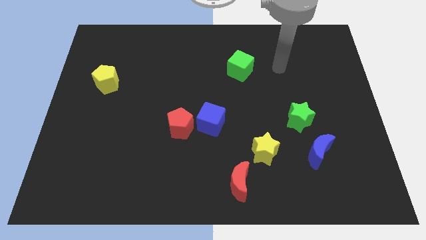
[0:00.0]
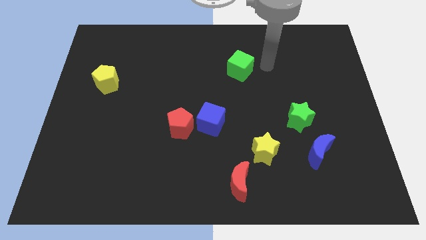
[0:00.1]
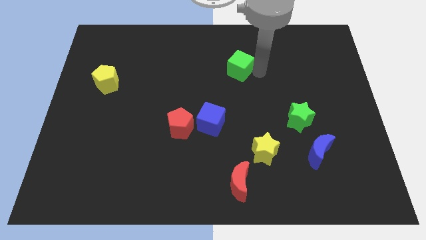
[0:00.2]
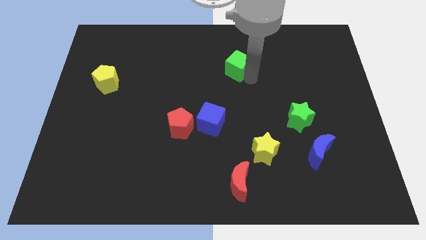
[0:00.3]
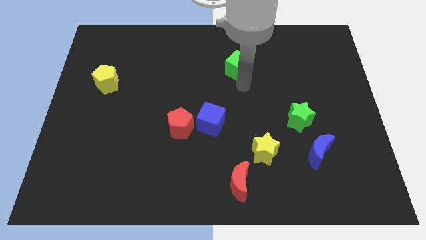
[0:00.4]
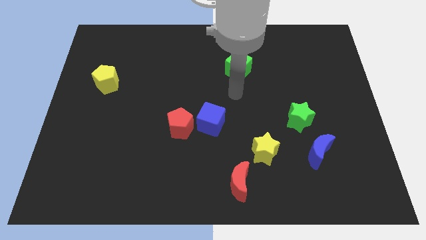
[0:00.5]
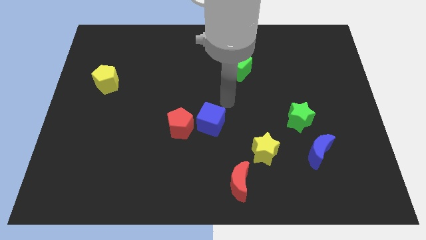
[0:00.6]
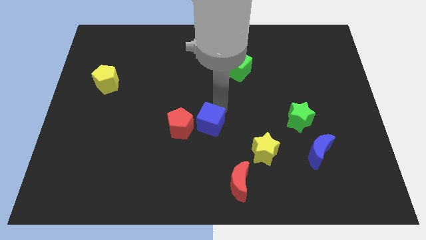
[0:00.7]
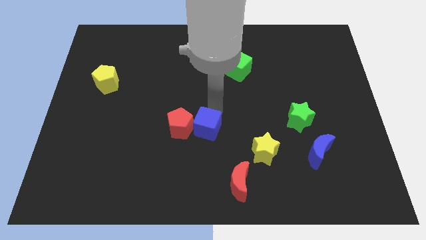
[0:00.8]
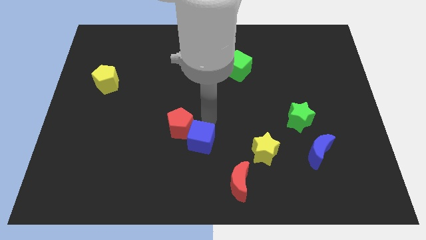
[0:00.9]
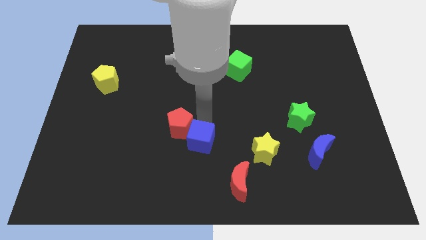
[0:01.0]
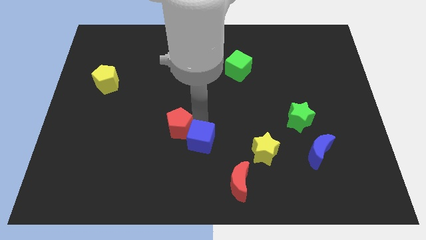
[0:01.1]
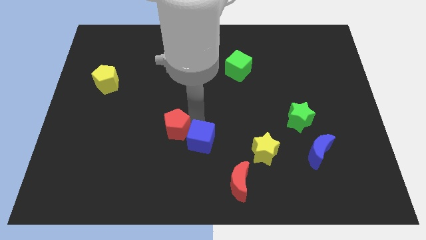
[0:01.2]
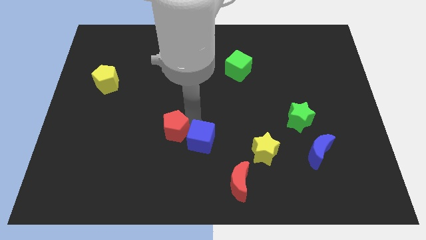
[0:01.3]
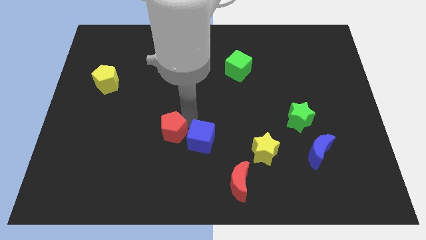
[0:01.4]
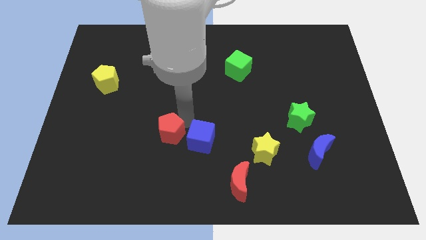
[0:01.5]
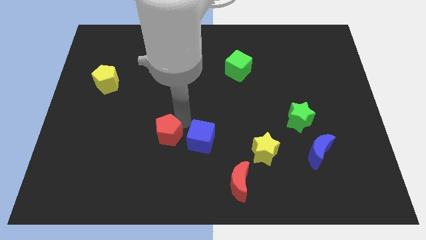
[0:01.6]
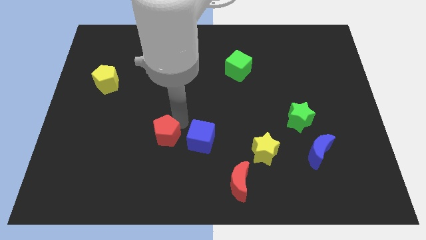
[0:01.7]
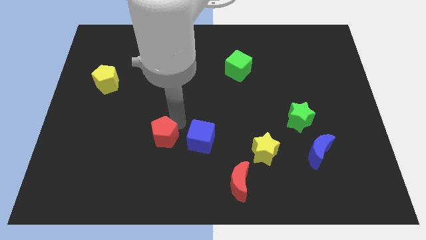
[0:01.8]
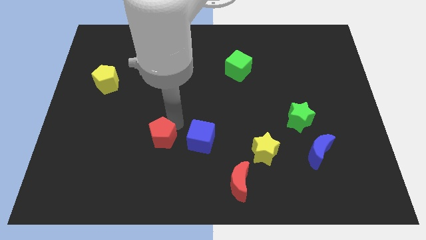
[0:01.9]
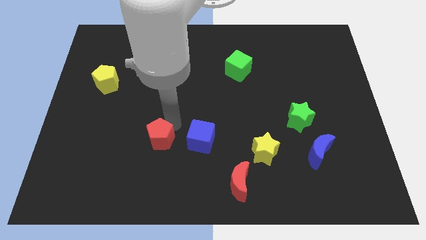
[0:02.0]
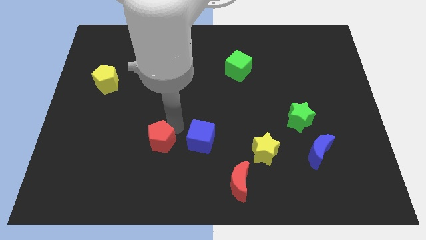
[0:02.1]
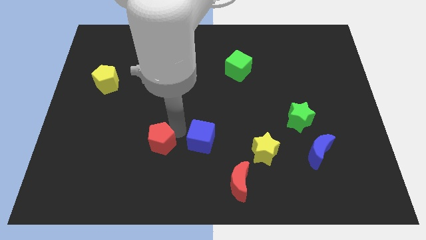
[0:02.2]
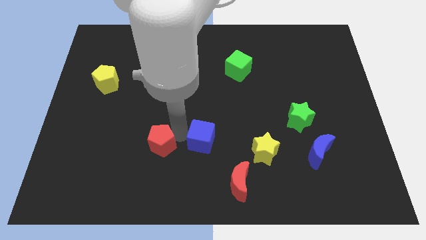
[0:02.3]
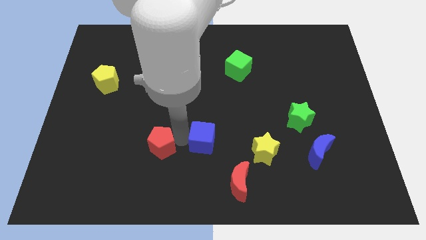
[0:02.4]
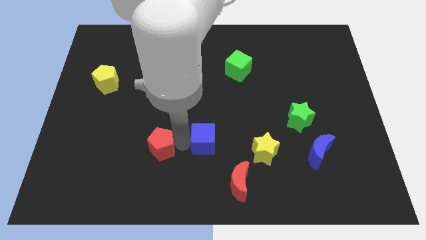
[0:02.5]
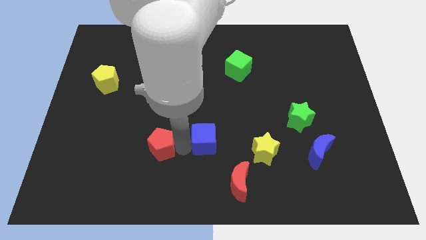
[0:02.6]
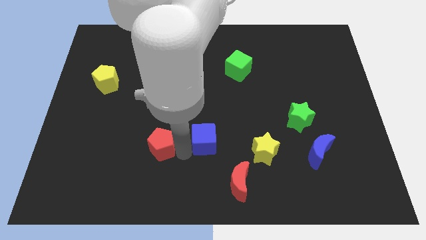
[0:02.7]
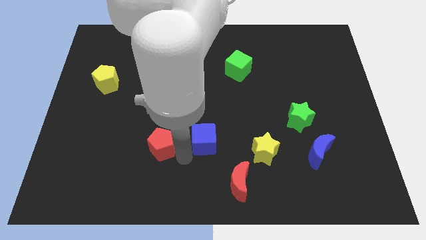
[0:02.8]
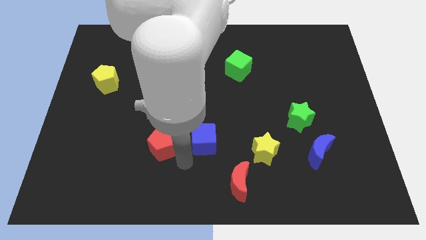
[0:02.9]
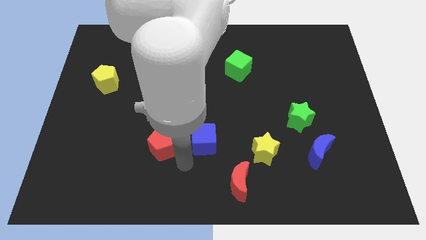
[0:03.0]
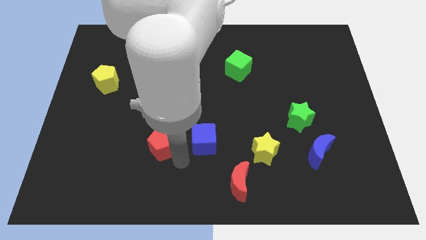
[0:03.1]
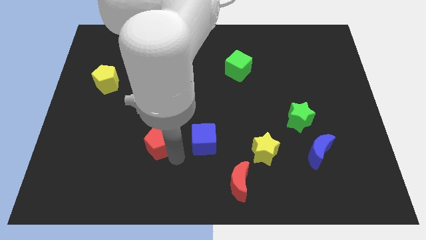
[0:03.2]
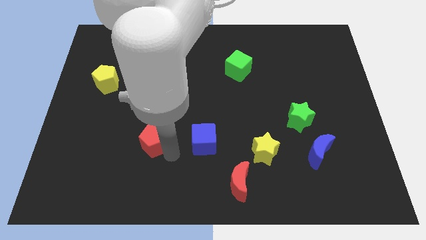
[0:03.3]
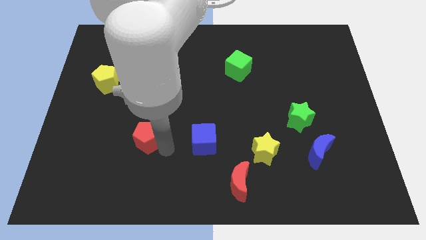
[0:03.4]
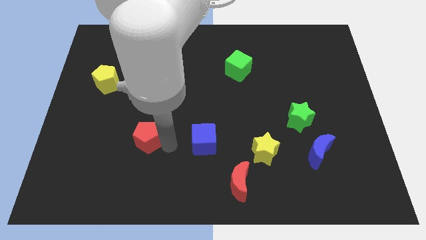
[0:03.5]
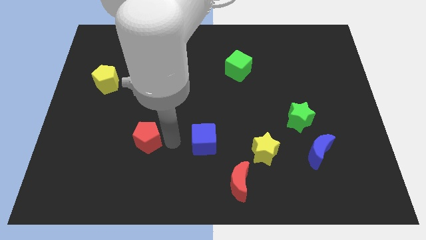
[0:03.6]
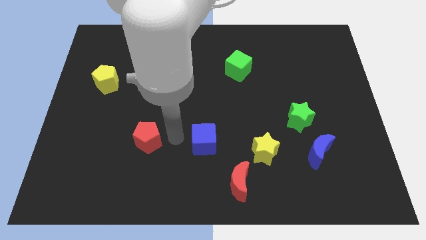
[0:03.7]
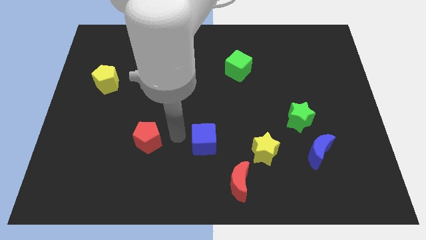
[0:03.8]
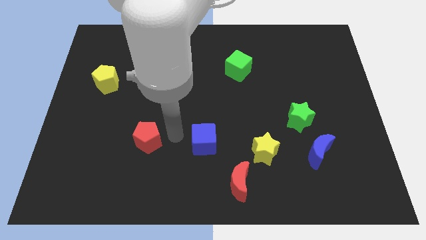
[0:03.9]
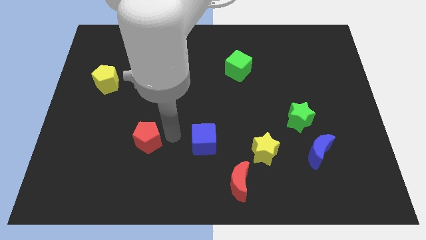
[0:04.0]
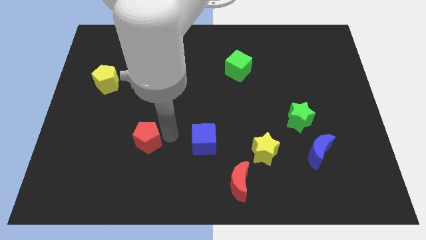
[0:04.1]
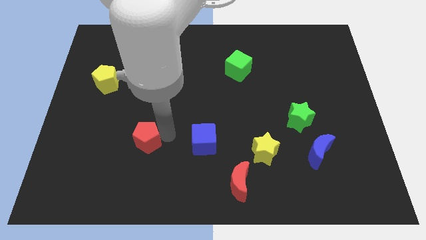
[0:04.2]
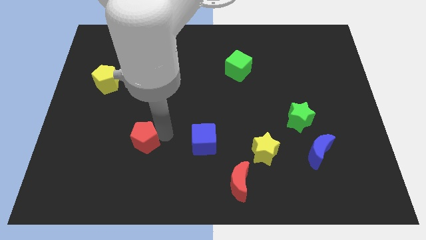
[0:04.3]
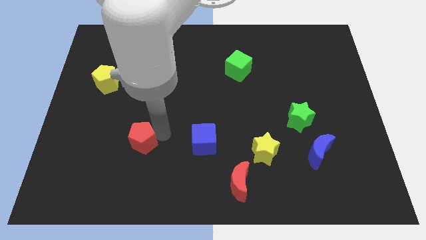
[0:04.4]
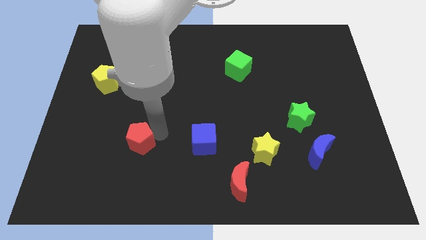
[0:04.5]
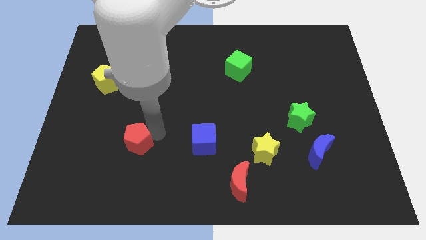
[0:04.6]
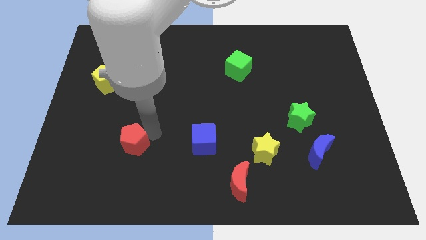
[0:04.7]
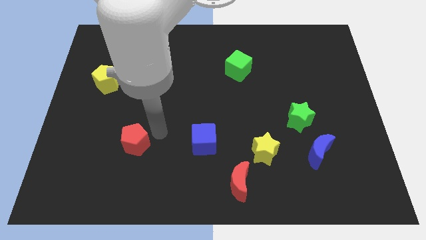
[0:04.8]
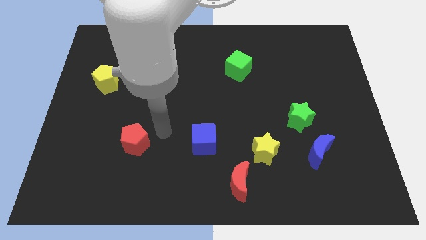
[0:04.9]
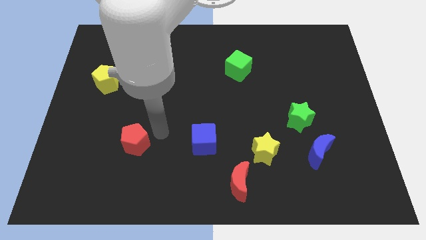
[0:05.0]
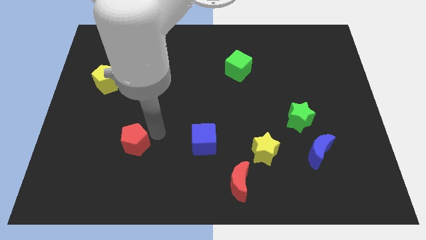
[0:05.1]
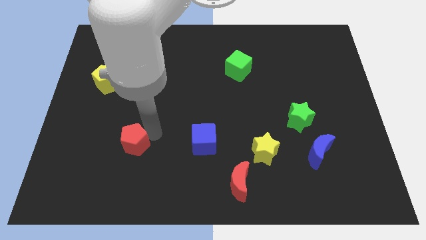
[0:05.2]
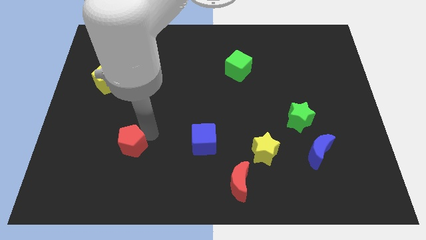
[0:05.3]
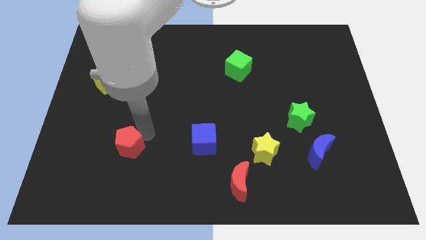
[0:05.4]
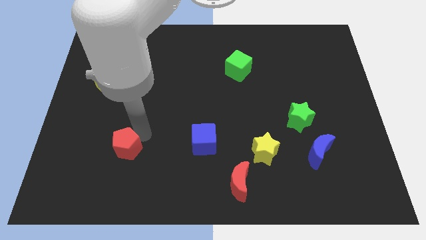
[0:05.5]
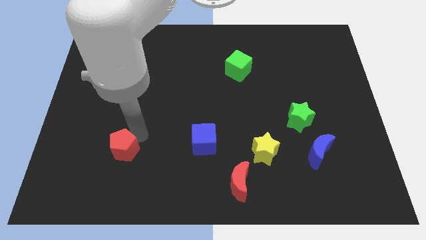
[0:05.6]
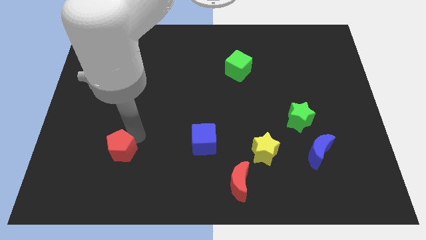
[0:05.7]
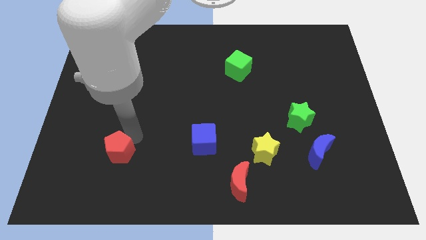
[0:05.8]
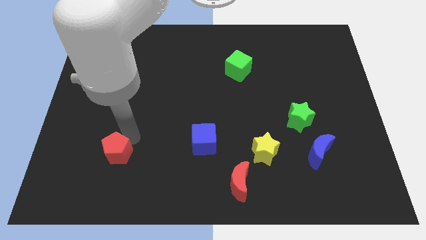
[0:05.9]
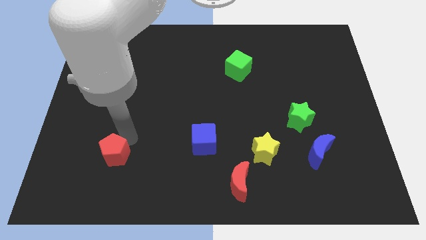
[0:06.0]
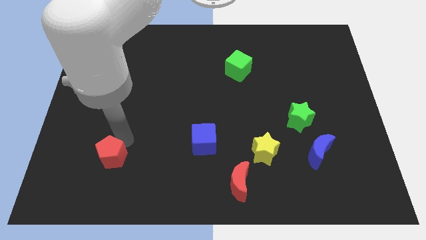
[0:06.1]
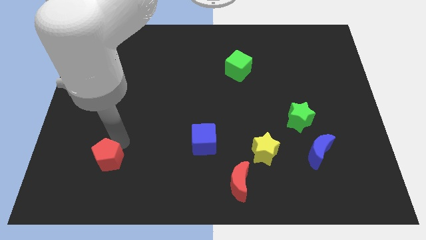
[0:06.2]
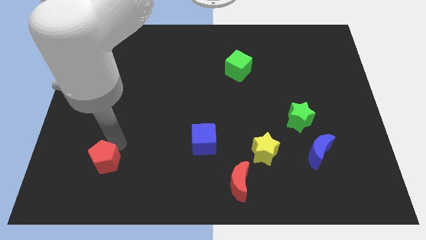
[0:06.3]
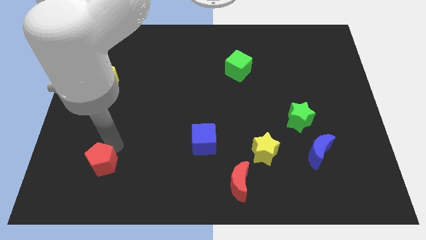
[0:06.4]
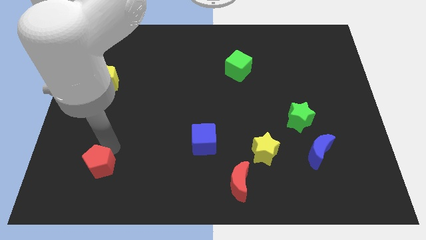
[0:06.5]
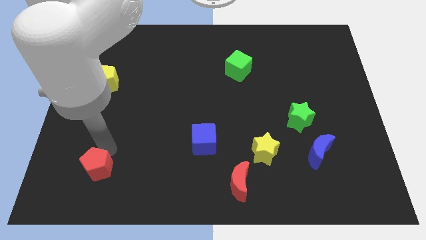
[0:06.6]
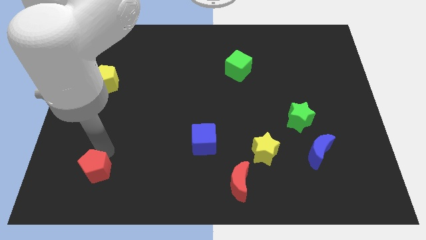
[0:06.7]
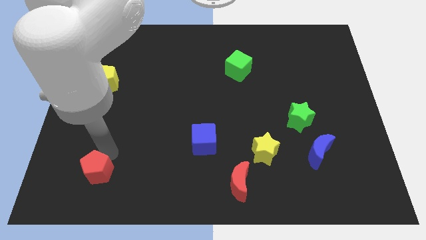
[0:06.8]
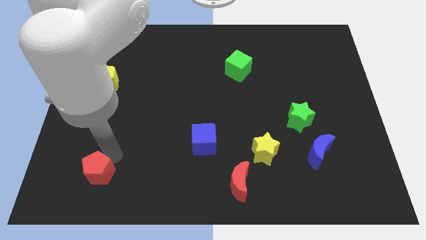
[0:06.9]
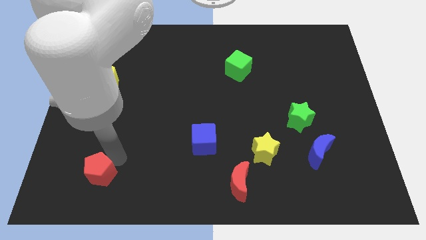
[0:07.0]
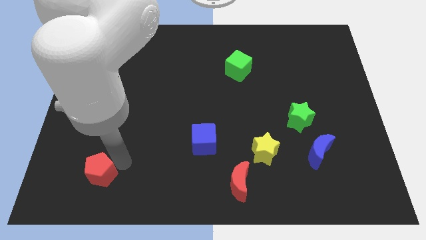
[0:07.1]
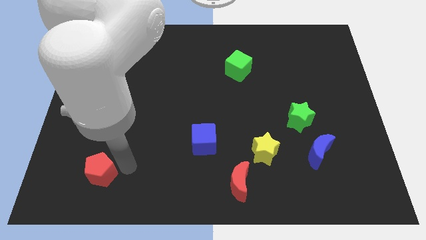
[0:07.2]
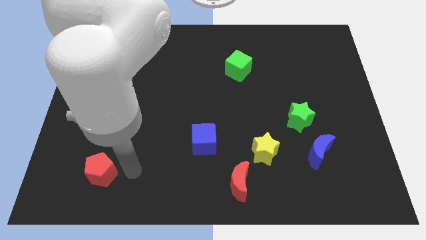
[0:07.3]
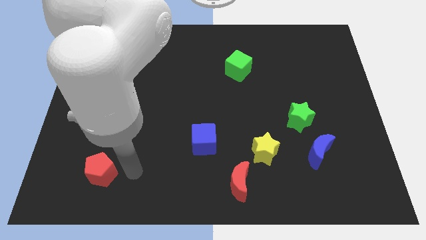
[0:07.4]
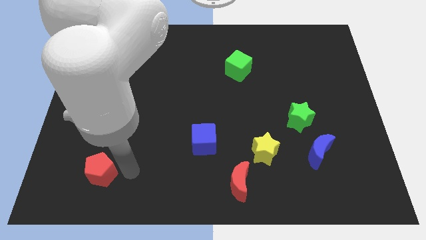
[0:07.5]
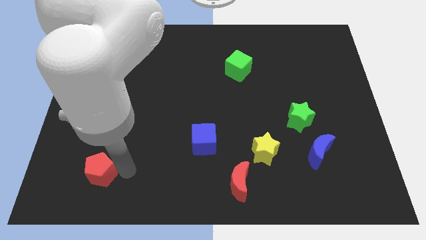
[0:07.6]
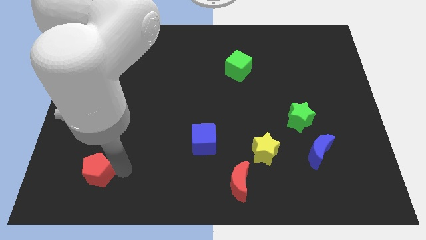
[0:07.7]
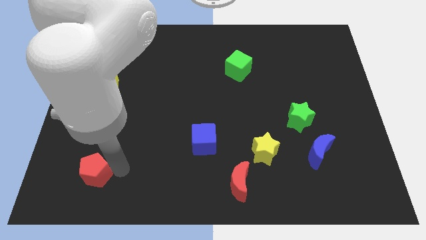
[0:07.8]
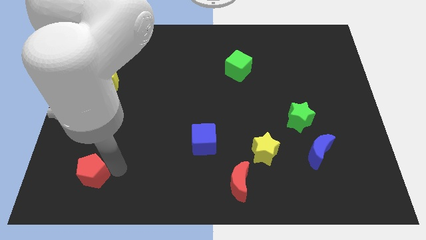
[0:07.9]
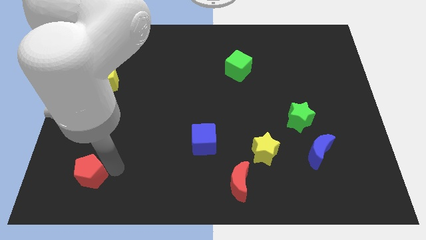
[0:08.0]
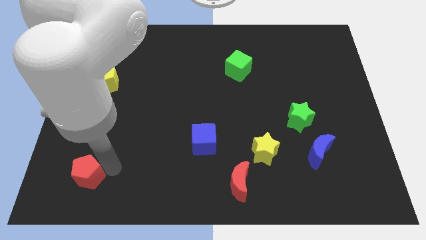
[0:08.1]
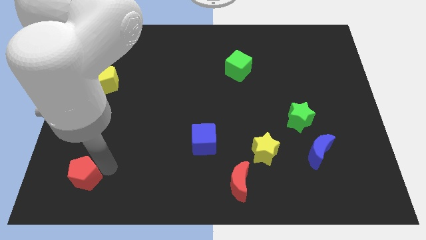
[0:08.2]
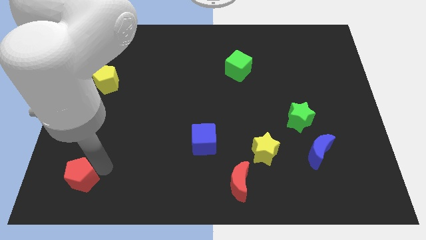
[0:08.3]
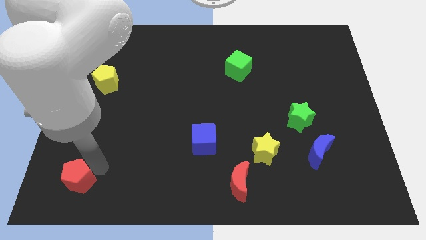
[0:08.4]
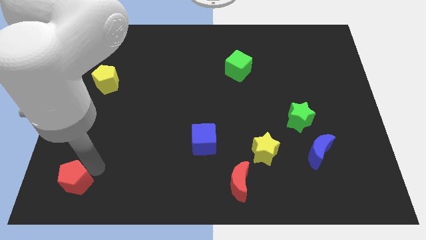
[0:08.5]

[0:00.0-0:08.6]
slide the red pentagon to the lower left corner
